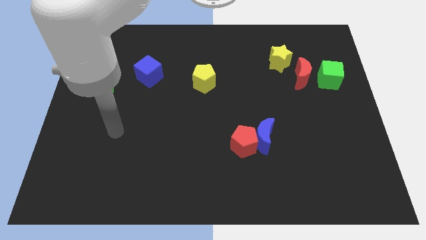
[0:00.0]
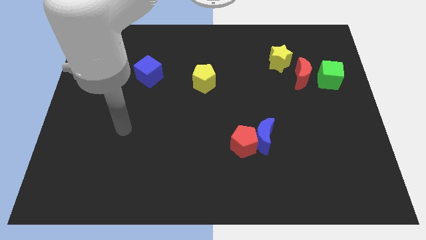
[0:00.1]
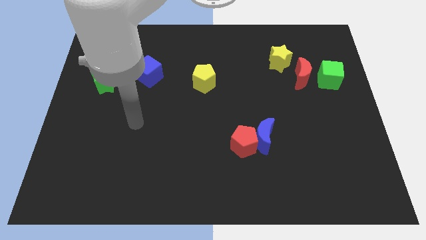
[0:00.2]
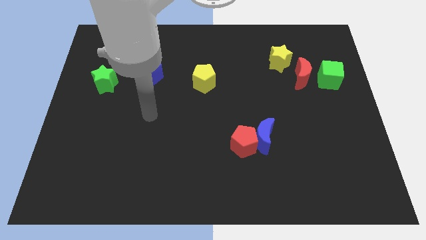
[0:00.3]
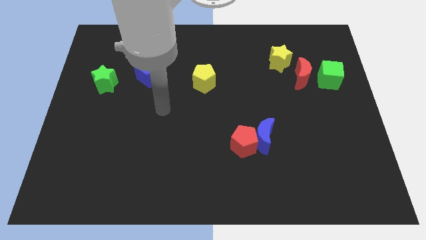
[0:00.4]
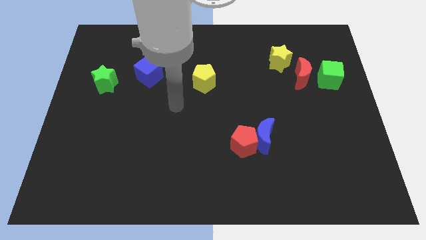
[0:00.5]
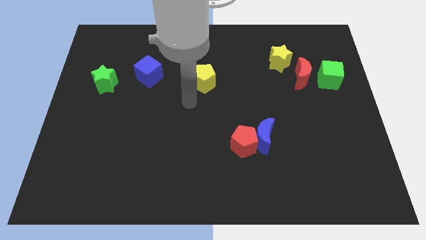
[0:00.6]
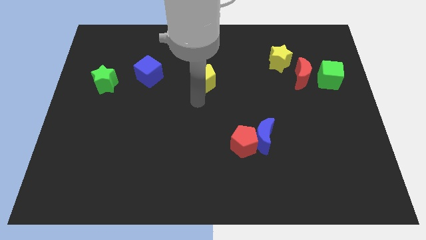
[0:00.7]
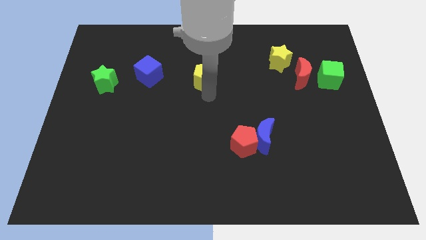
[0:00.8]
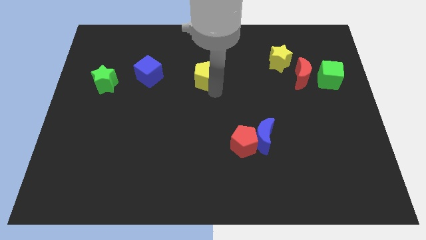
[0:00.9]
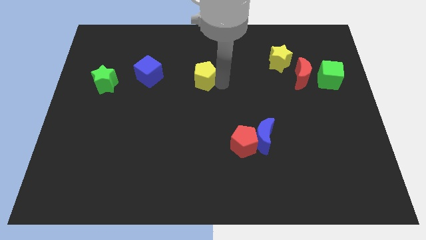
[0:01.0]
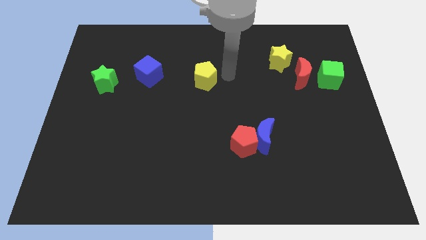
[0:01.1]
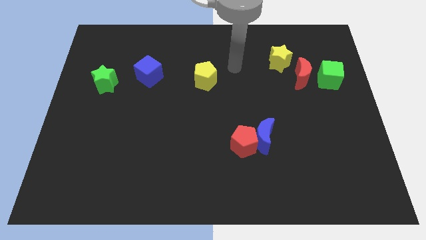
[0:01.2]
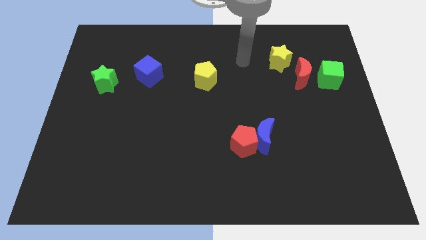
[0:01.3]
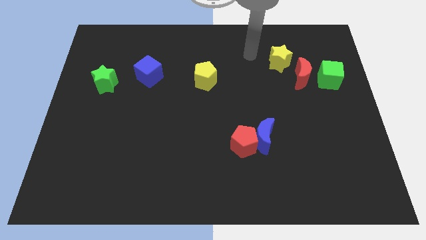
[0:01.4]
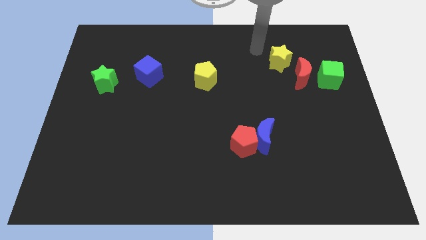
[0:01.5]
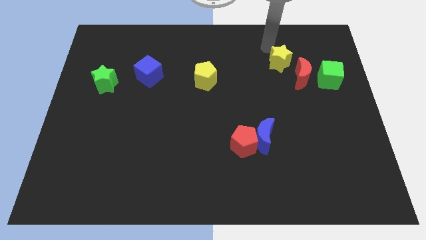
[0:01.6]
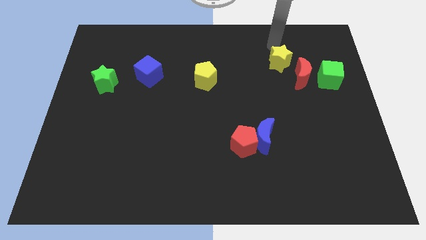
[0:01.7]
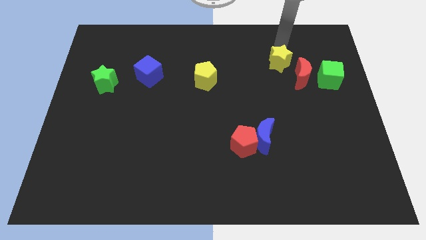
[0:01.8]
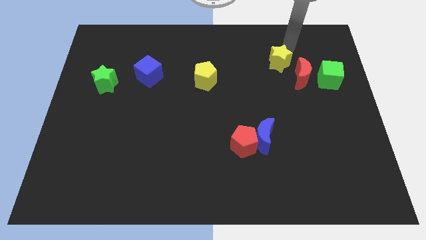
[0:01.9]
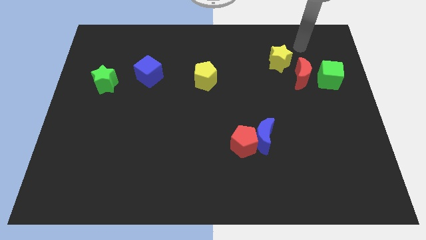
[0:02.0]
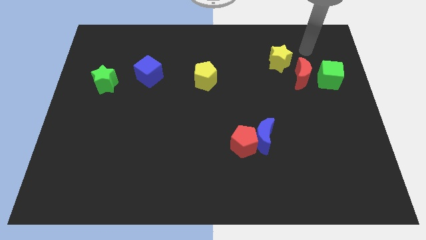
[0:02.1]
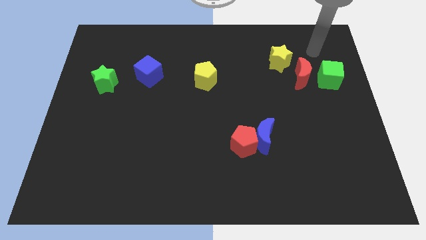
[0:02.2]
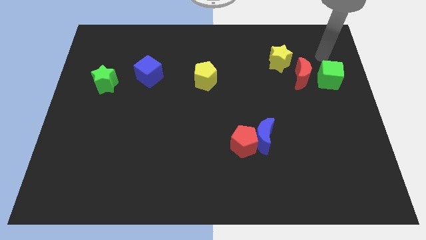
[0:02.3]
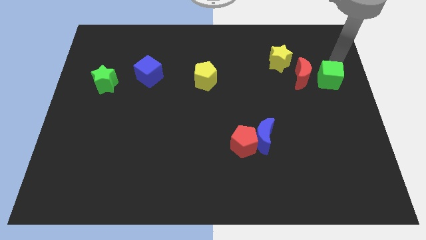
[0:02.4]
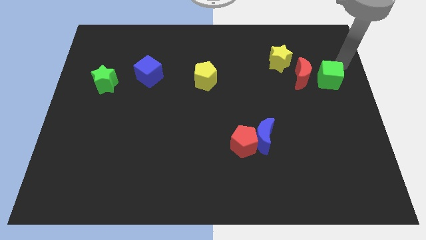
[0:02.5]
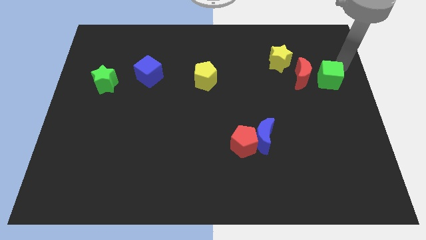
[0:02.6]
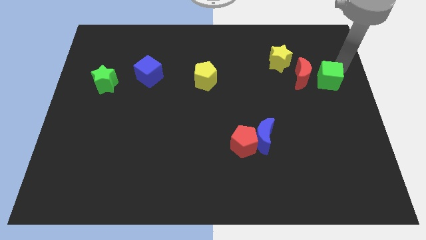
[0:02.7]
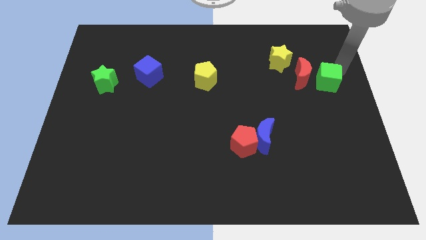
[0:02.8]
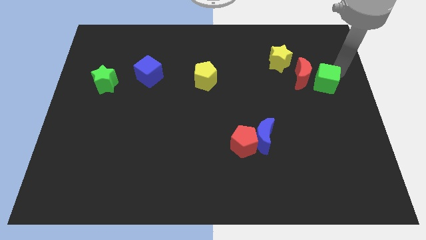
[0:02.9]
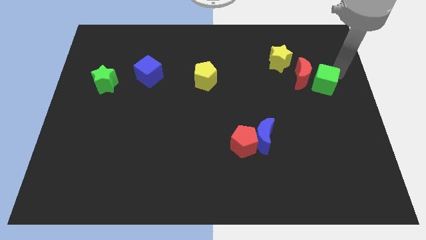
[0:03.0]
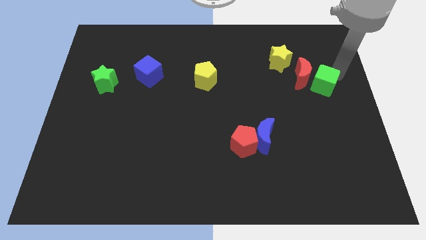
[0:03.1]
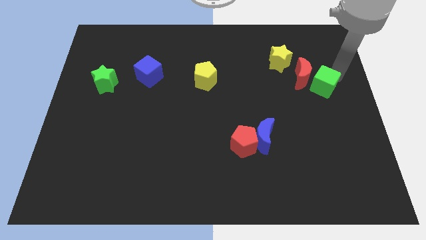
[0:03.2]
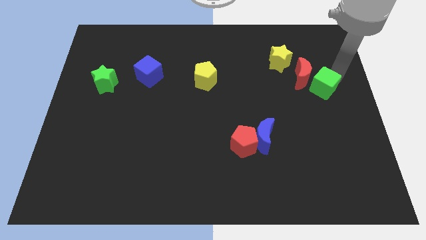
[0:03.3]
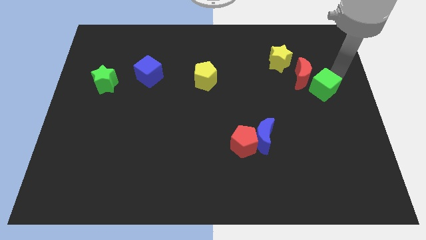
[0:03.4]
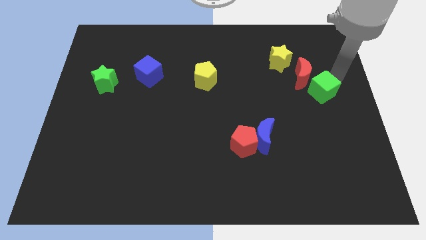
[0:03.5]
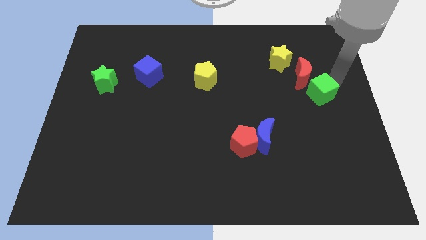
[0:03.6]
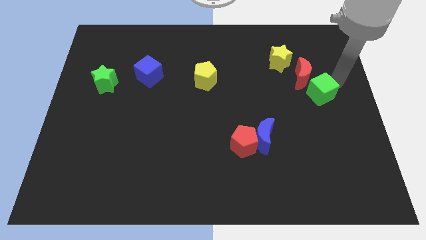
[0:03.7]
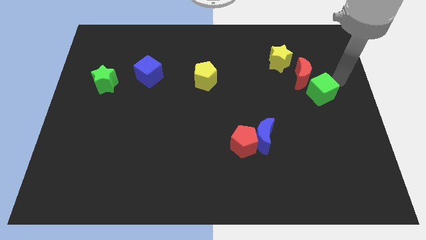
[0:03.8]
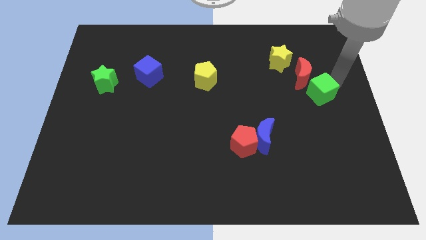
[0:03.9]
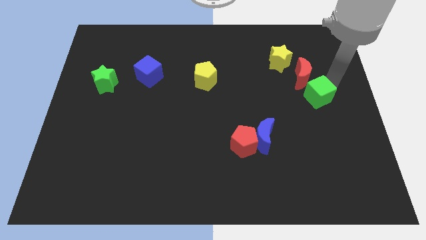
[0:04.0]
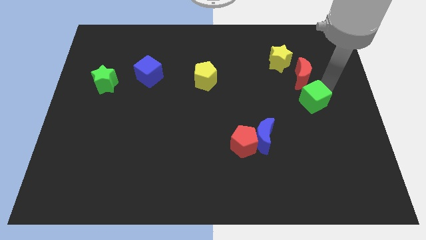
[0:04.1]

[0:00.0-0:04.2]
slightly push the green cube downwards and then left

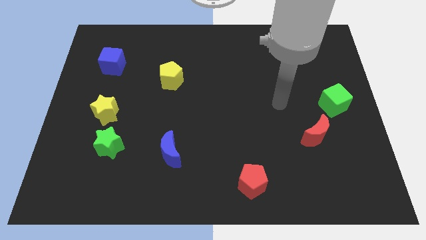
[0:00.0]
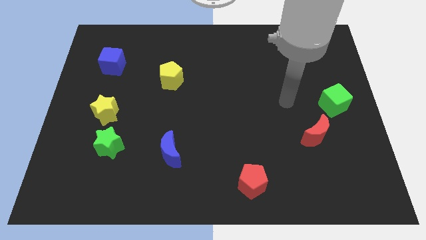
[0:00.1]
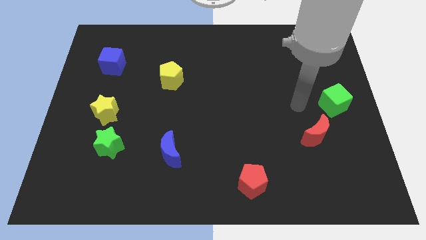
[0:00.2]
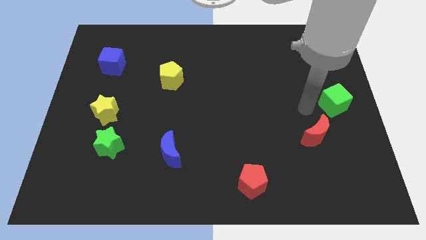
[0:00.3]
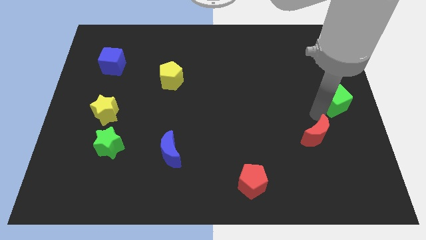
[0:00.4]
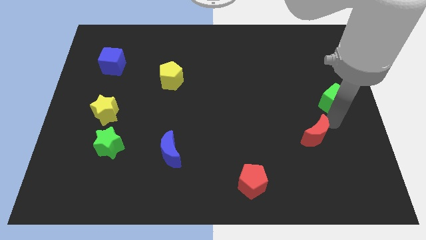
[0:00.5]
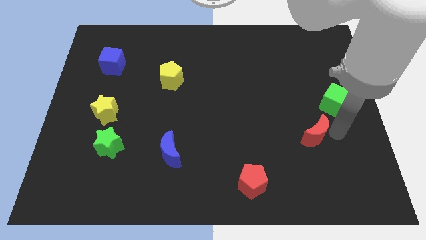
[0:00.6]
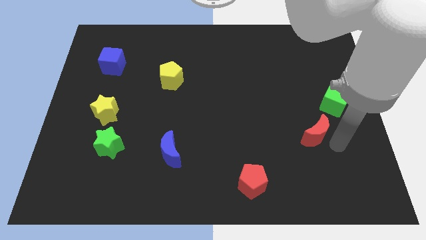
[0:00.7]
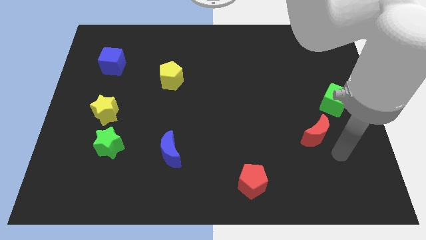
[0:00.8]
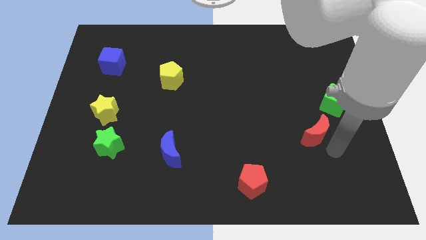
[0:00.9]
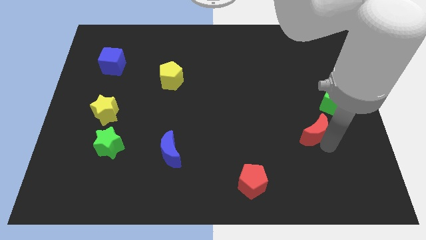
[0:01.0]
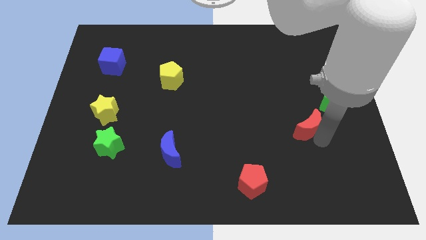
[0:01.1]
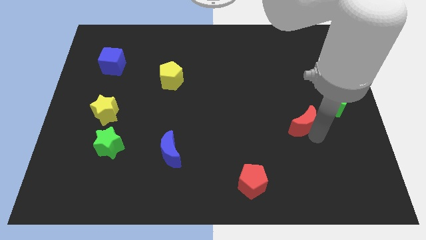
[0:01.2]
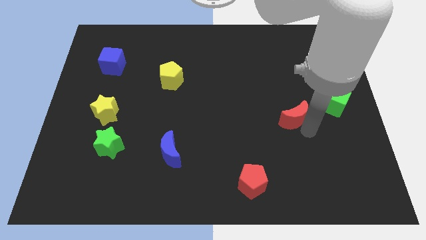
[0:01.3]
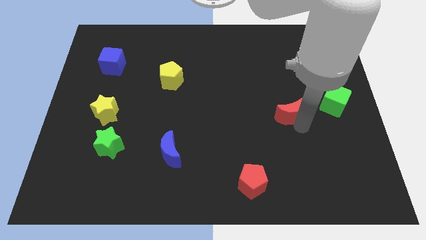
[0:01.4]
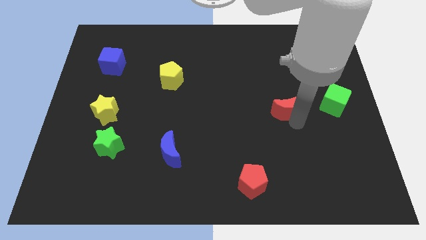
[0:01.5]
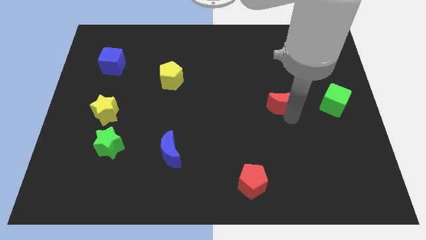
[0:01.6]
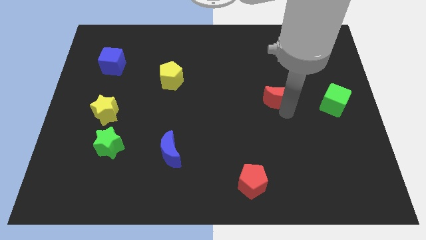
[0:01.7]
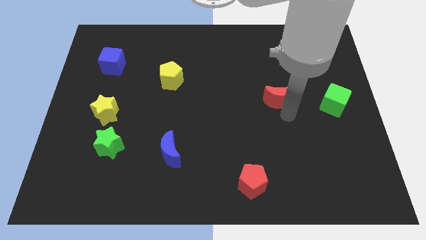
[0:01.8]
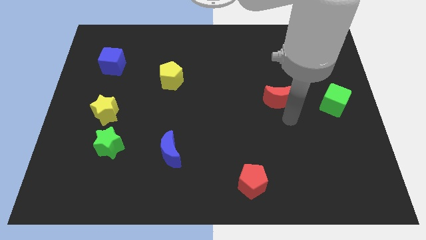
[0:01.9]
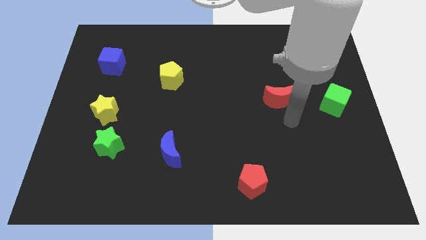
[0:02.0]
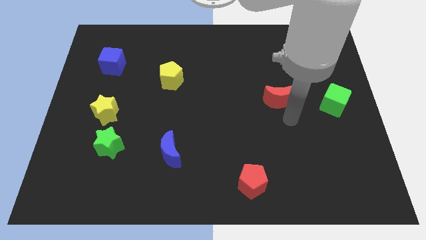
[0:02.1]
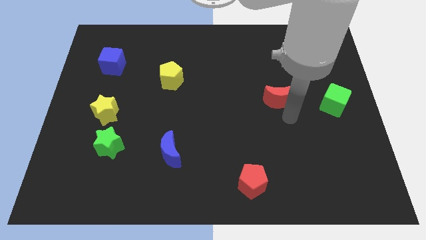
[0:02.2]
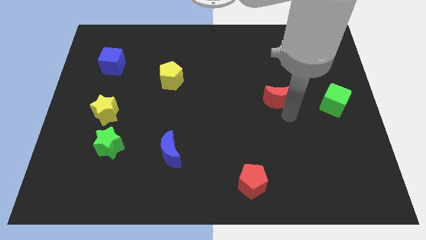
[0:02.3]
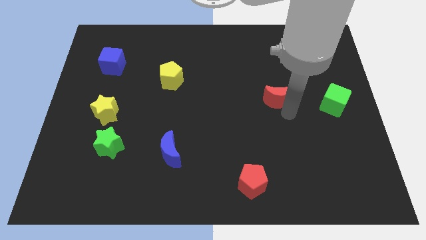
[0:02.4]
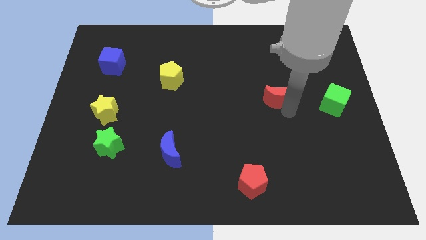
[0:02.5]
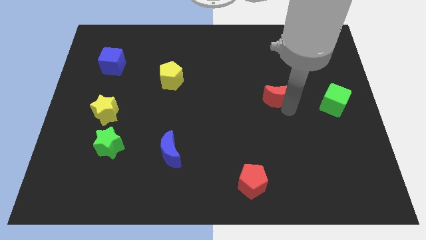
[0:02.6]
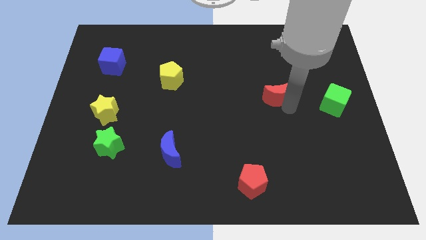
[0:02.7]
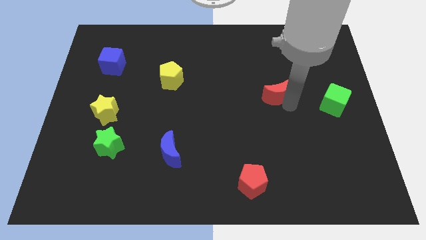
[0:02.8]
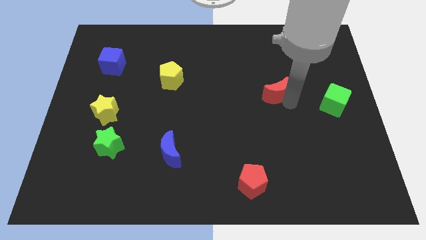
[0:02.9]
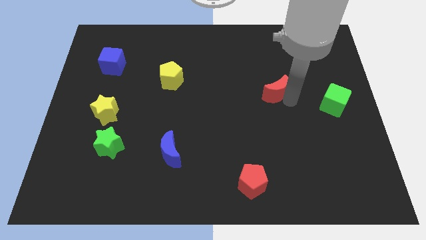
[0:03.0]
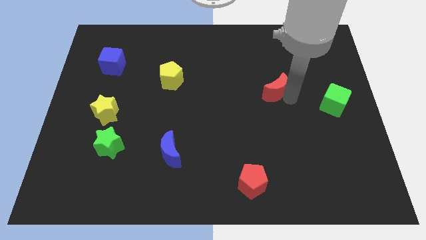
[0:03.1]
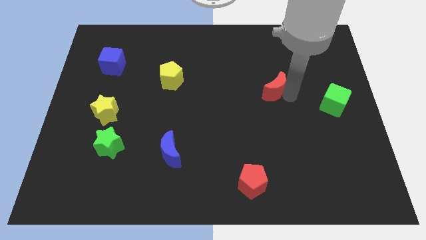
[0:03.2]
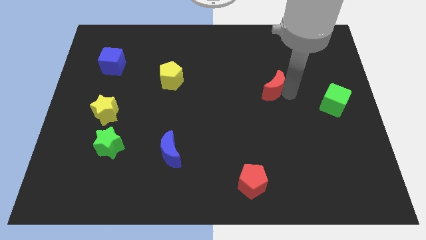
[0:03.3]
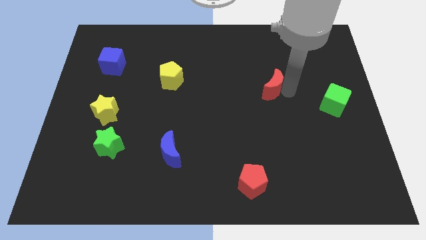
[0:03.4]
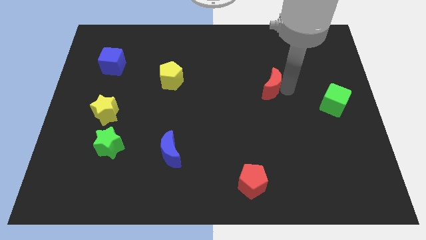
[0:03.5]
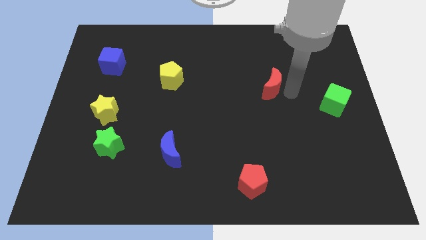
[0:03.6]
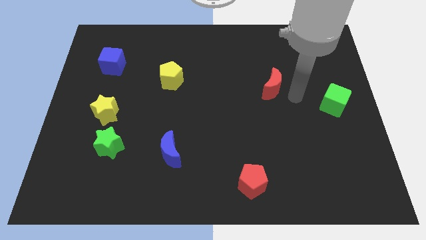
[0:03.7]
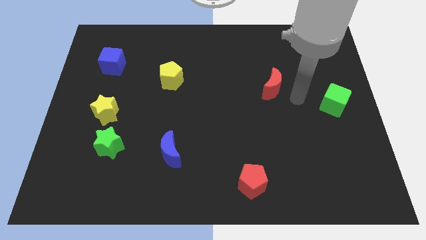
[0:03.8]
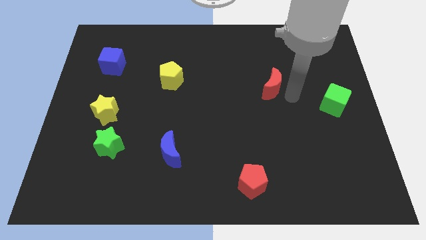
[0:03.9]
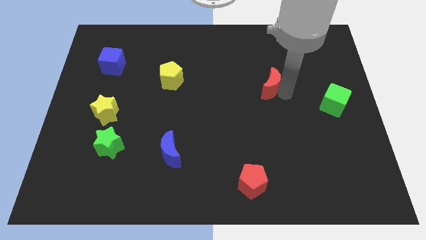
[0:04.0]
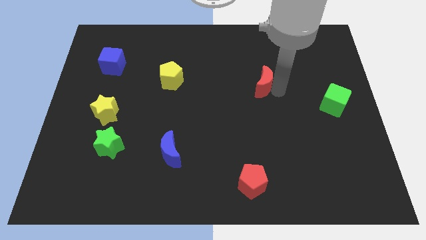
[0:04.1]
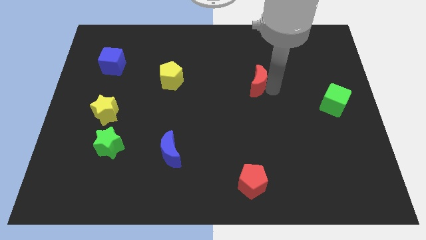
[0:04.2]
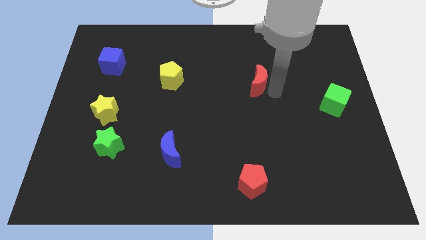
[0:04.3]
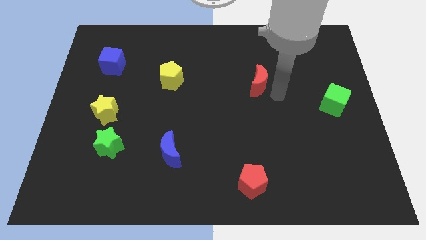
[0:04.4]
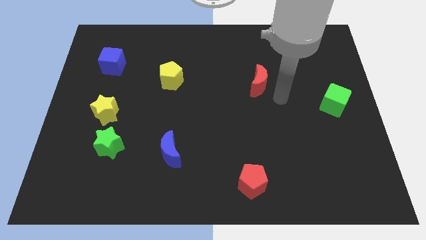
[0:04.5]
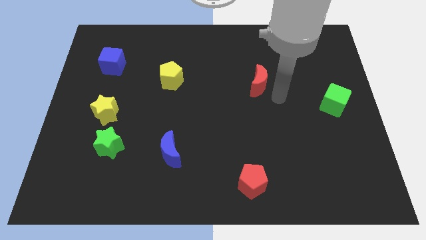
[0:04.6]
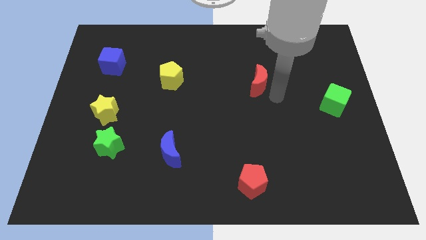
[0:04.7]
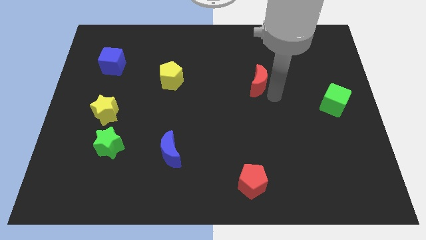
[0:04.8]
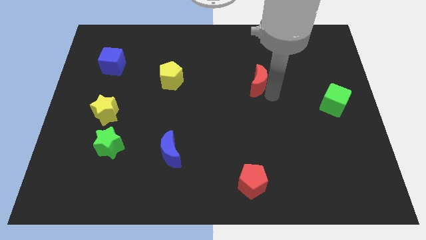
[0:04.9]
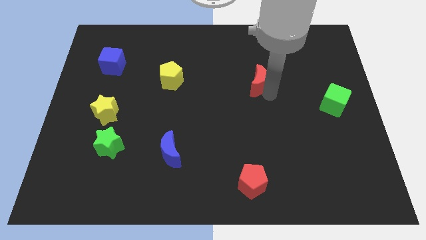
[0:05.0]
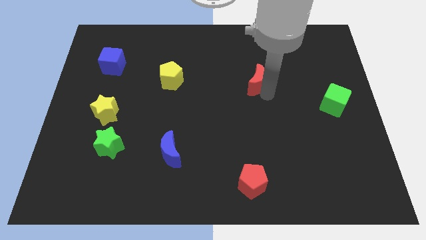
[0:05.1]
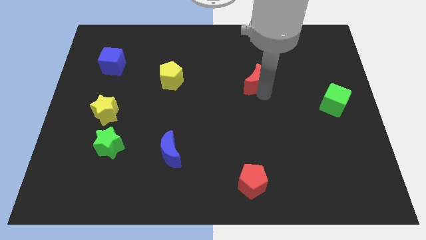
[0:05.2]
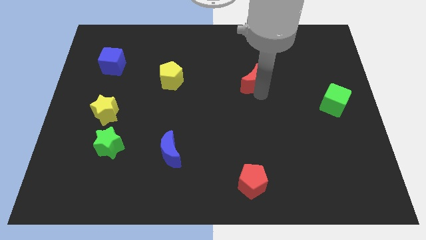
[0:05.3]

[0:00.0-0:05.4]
push the red moon up and to the left diagonally
